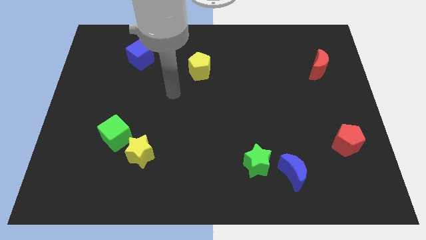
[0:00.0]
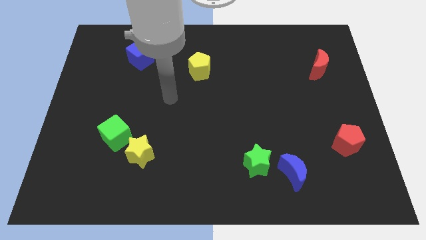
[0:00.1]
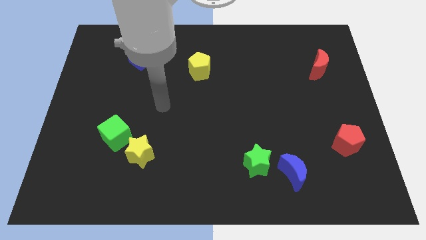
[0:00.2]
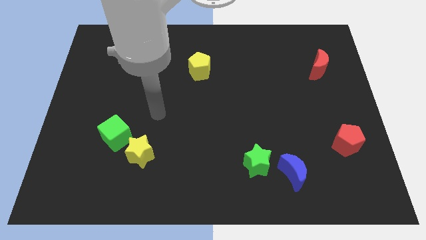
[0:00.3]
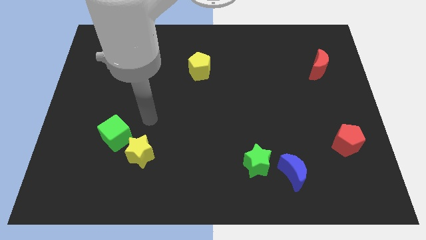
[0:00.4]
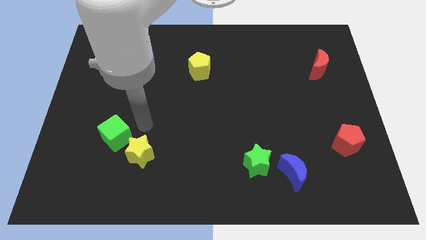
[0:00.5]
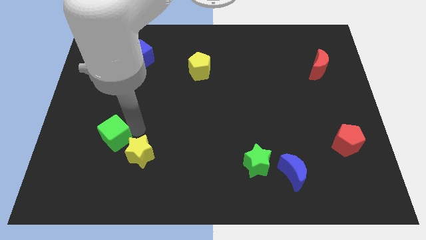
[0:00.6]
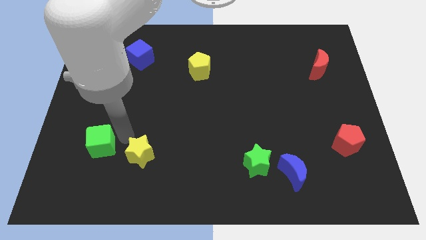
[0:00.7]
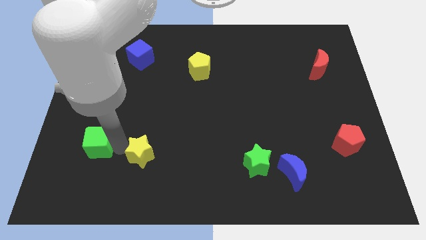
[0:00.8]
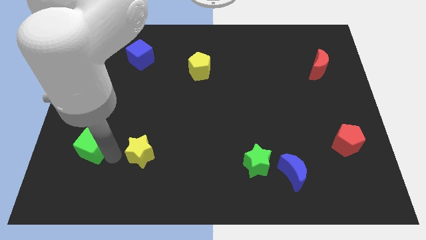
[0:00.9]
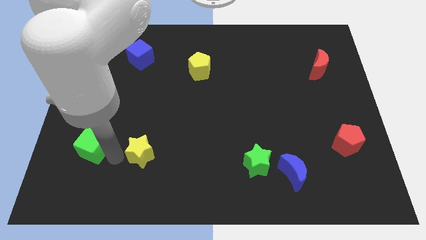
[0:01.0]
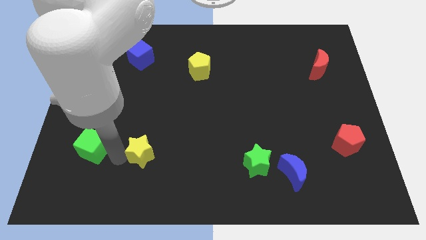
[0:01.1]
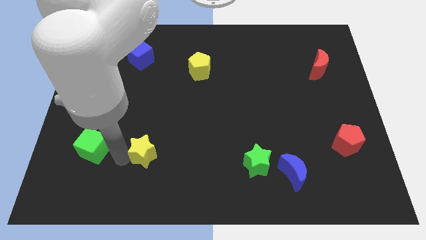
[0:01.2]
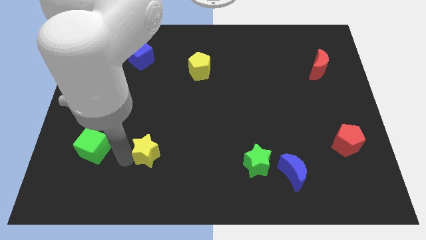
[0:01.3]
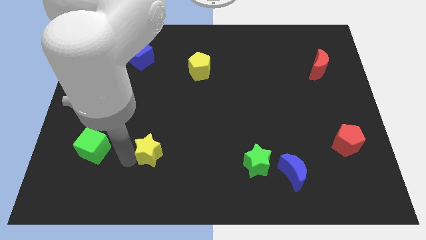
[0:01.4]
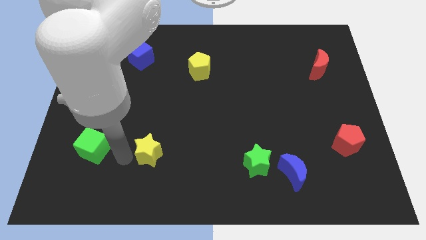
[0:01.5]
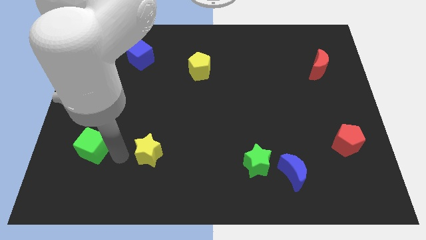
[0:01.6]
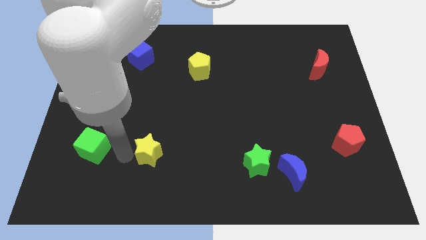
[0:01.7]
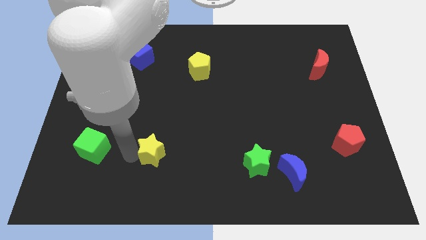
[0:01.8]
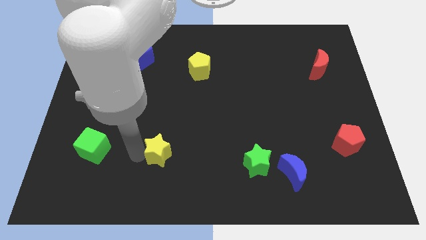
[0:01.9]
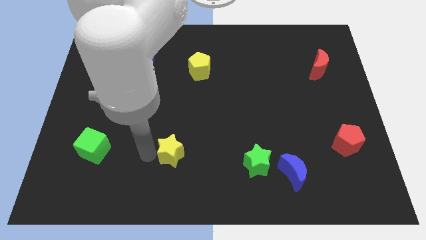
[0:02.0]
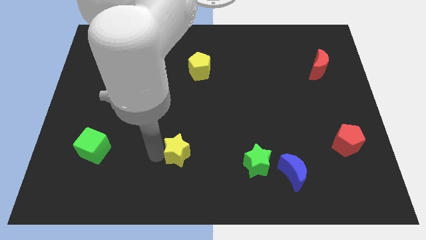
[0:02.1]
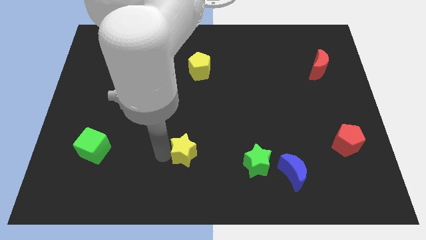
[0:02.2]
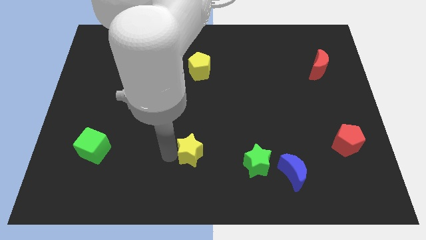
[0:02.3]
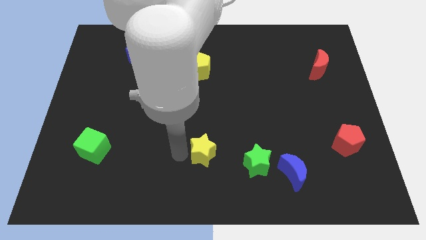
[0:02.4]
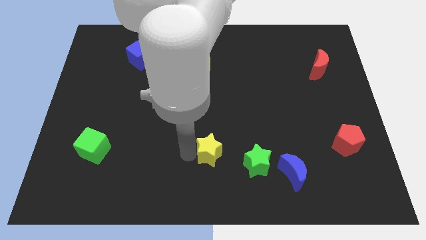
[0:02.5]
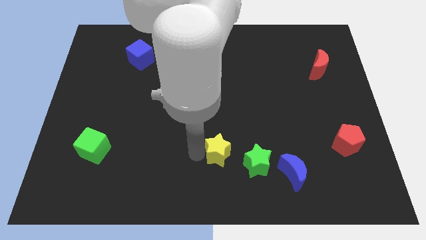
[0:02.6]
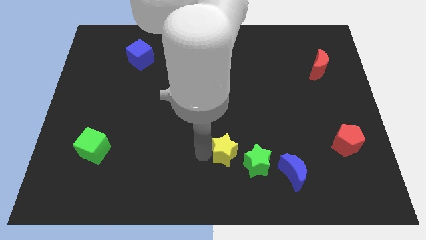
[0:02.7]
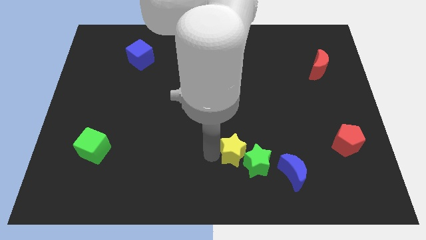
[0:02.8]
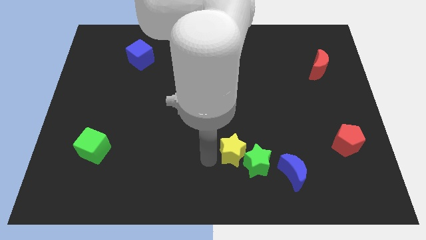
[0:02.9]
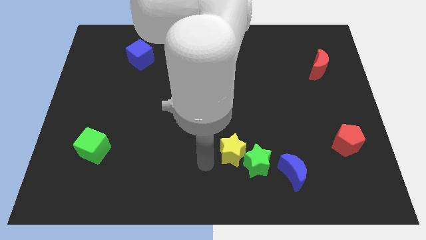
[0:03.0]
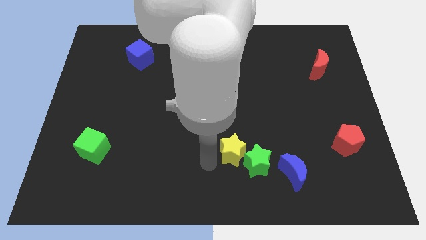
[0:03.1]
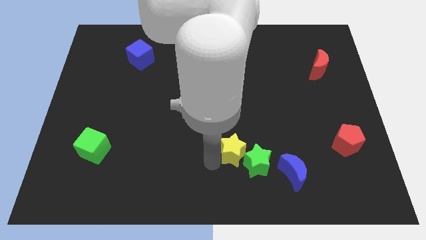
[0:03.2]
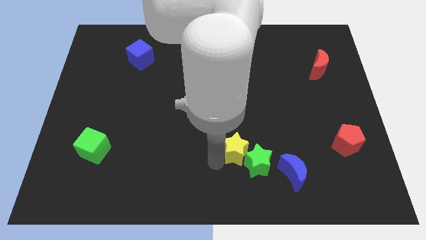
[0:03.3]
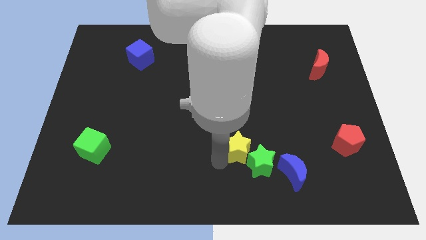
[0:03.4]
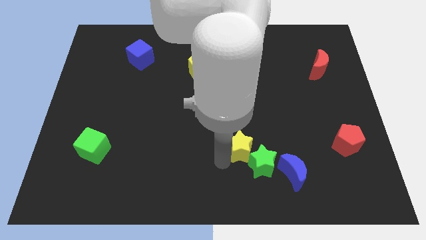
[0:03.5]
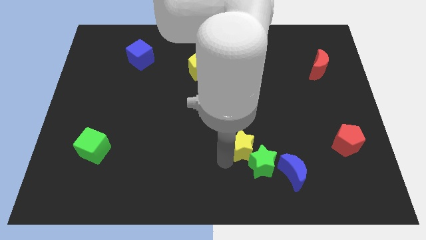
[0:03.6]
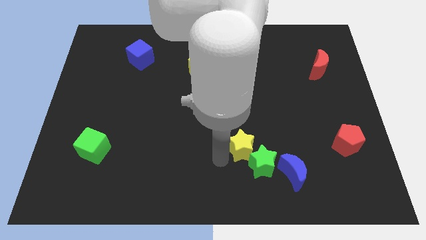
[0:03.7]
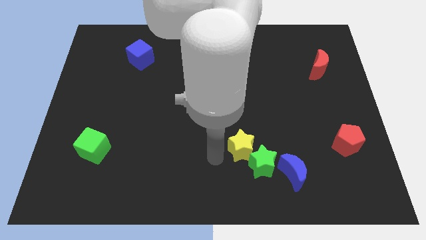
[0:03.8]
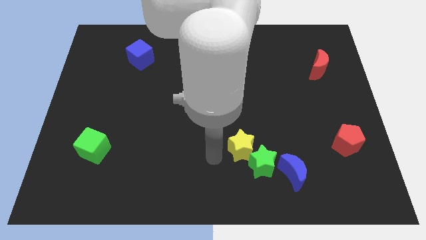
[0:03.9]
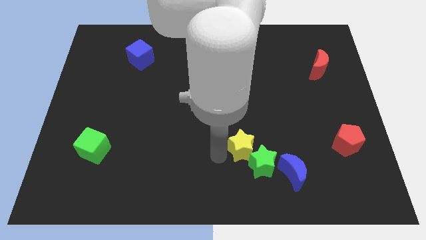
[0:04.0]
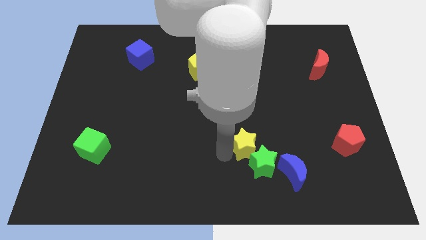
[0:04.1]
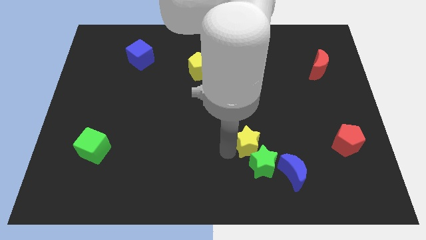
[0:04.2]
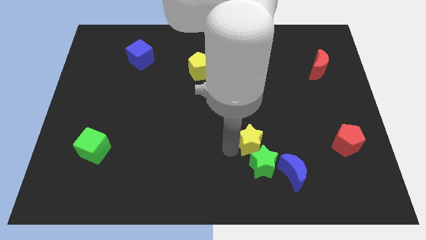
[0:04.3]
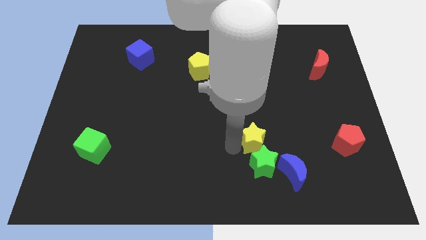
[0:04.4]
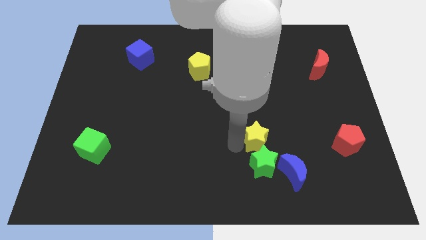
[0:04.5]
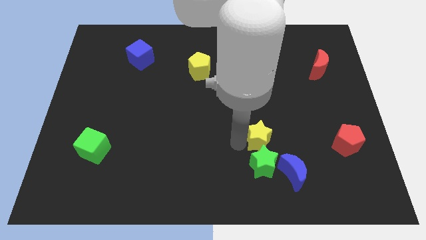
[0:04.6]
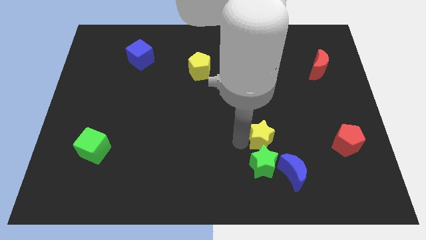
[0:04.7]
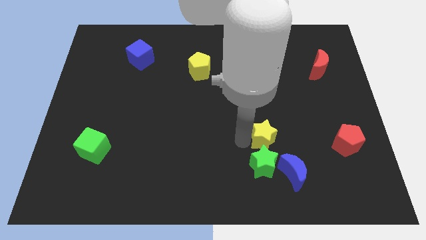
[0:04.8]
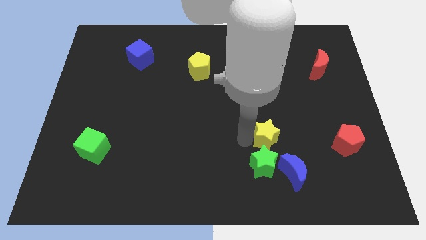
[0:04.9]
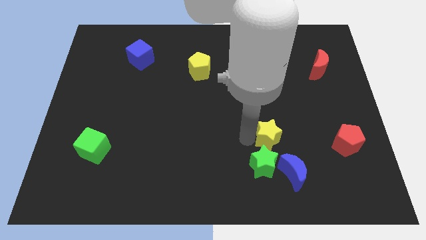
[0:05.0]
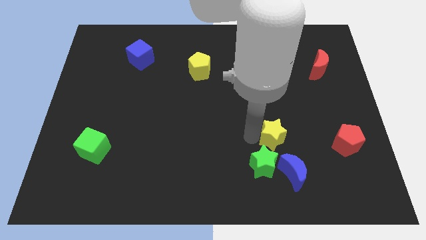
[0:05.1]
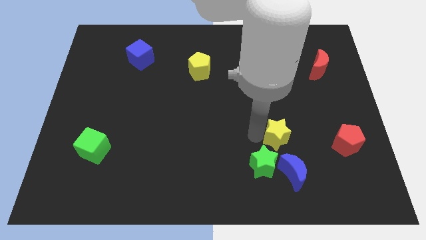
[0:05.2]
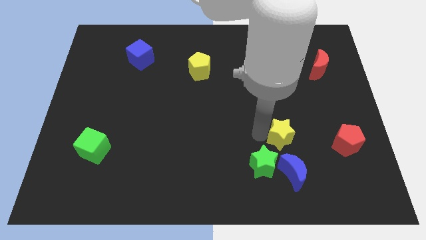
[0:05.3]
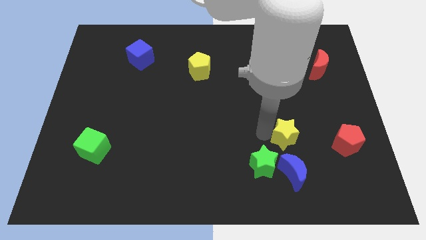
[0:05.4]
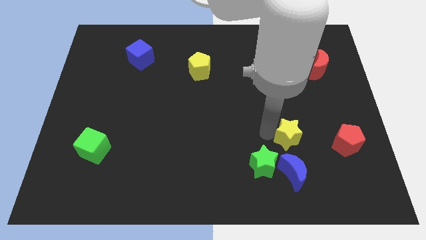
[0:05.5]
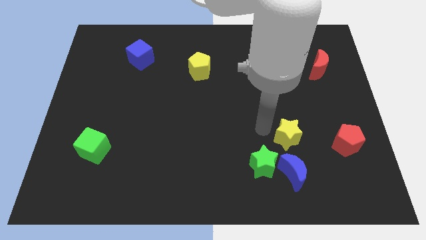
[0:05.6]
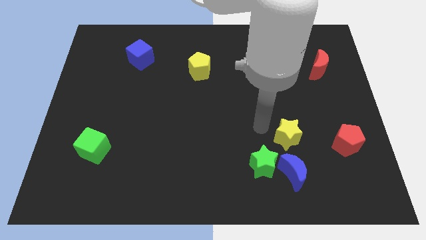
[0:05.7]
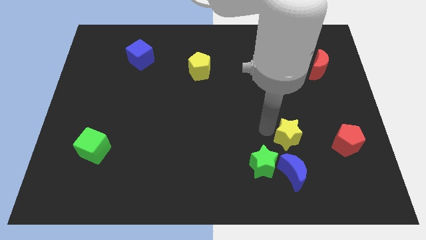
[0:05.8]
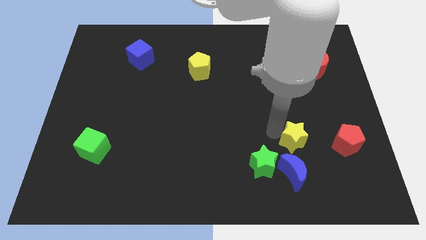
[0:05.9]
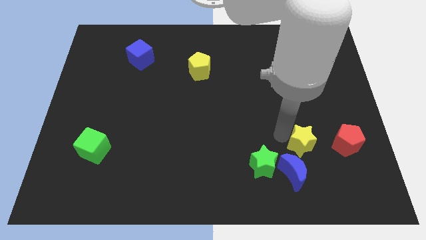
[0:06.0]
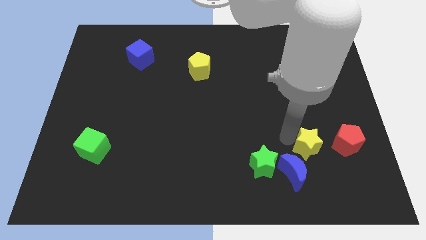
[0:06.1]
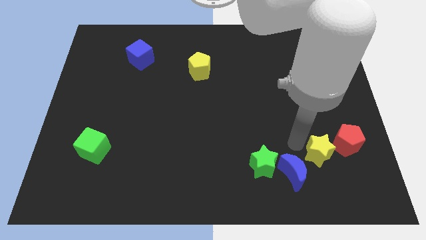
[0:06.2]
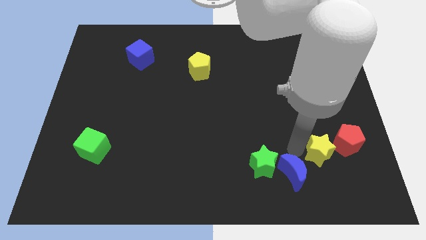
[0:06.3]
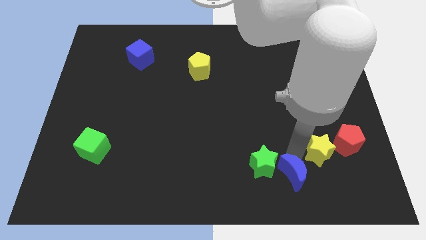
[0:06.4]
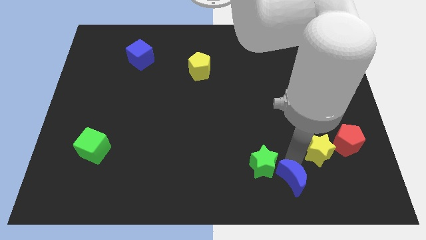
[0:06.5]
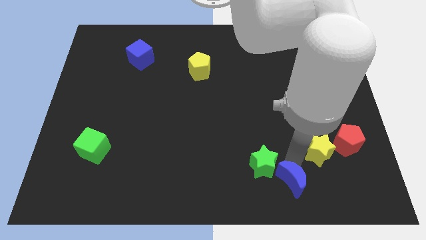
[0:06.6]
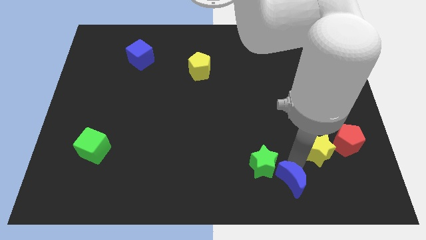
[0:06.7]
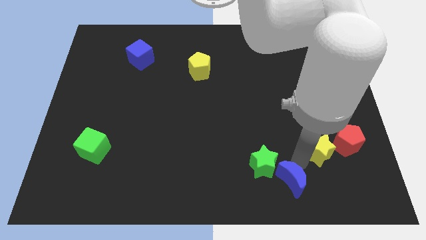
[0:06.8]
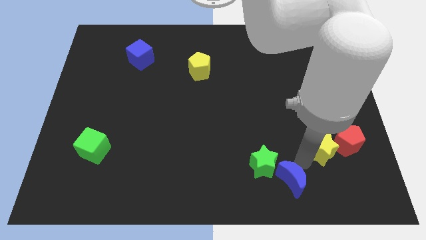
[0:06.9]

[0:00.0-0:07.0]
slide the yellow star to the red pentagon
